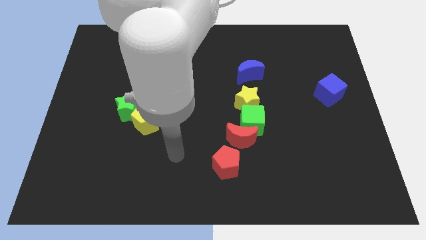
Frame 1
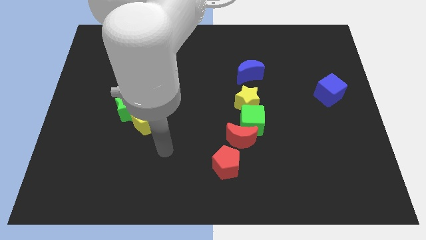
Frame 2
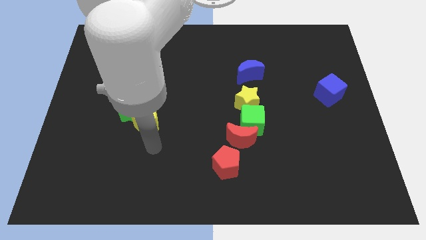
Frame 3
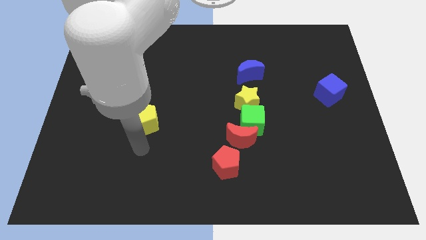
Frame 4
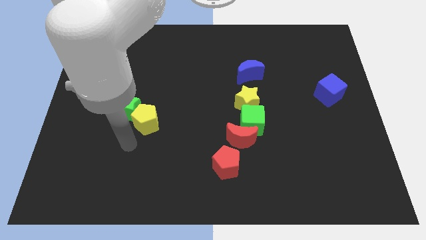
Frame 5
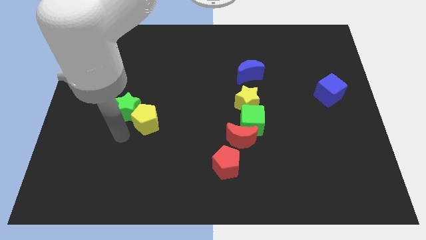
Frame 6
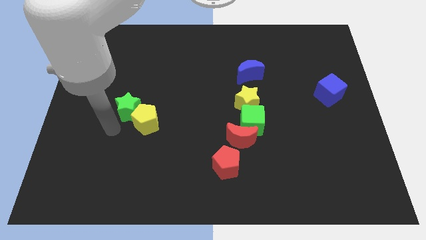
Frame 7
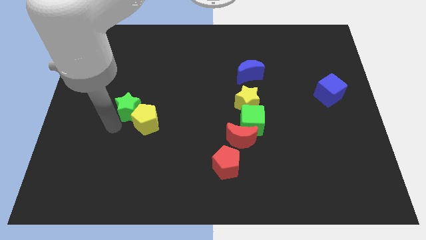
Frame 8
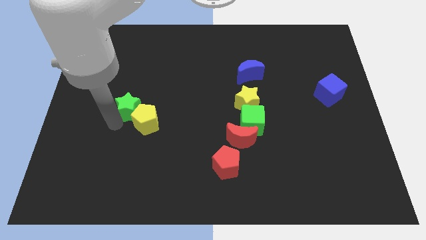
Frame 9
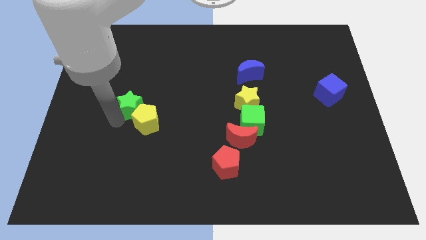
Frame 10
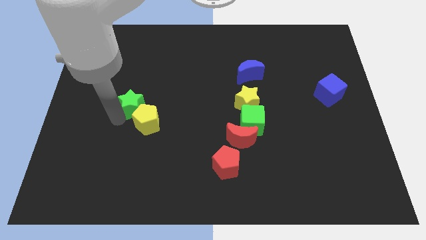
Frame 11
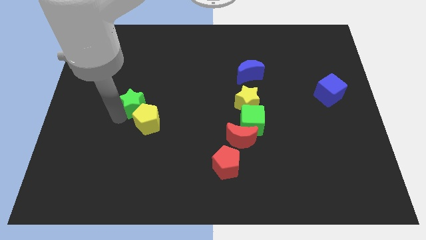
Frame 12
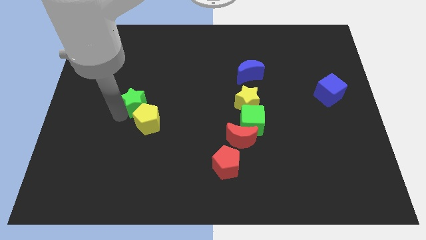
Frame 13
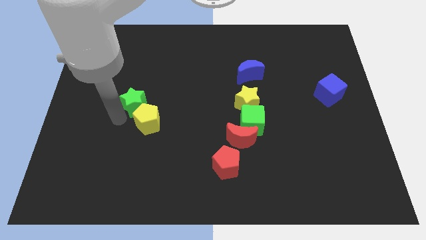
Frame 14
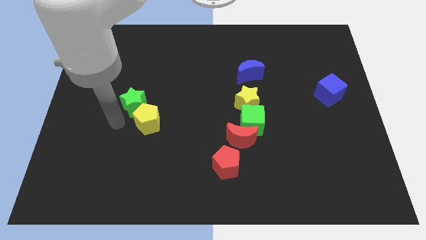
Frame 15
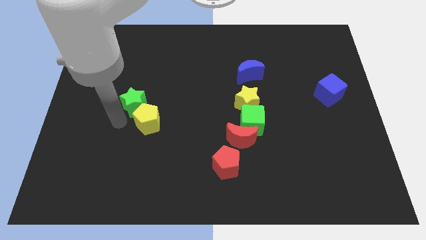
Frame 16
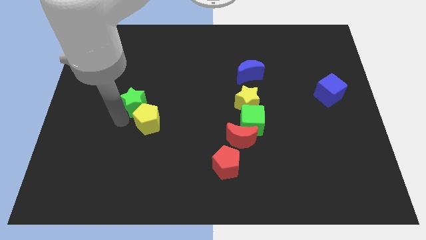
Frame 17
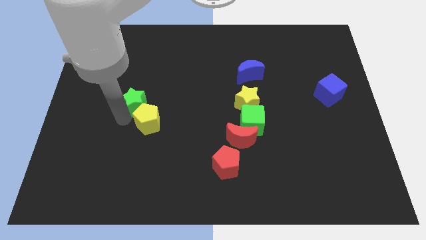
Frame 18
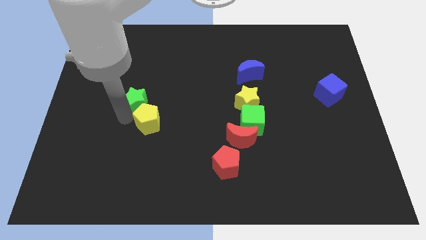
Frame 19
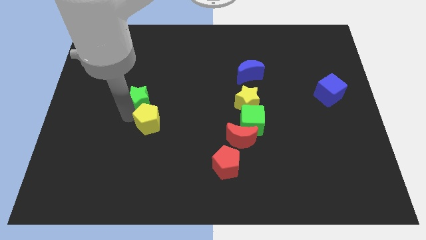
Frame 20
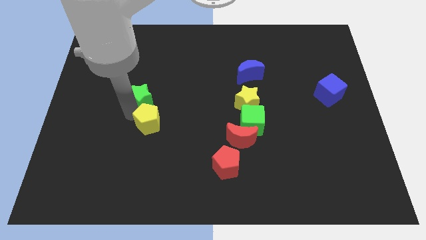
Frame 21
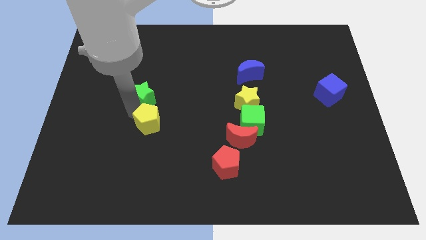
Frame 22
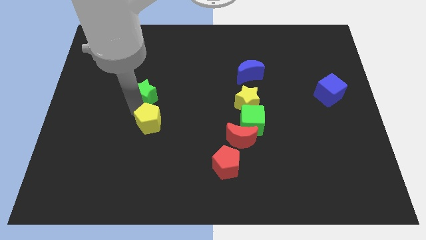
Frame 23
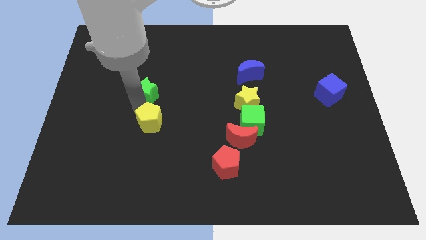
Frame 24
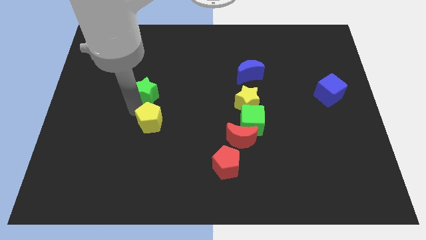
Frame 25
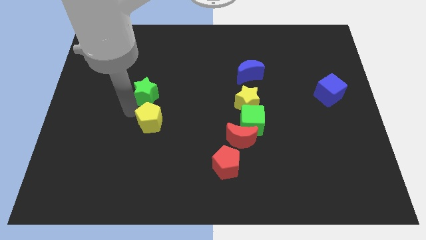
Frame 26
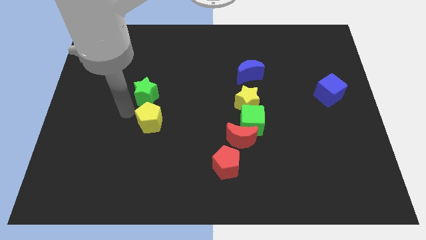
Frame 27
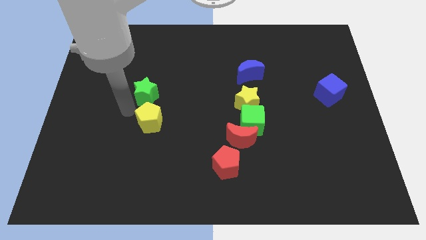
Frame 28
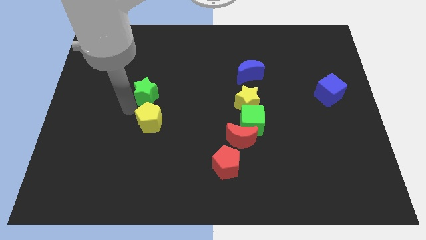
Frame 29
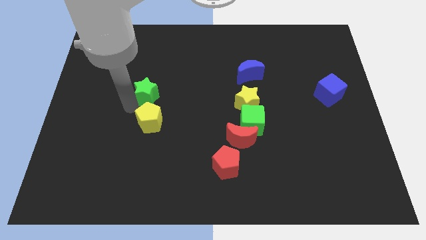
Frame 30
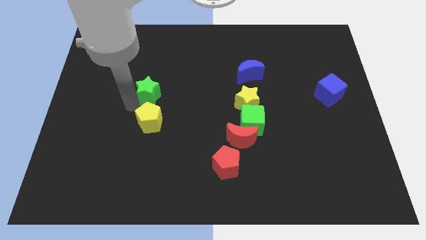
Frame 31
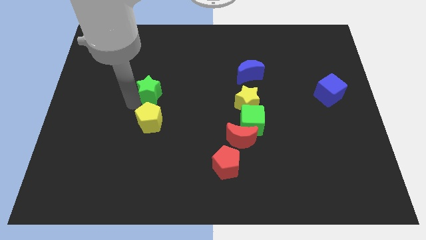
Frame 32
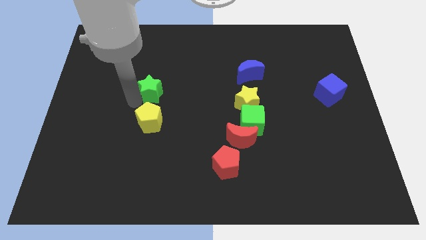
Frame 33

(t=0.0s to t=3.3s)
move the green star a little upwards and right diagonally

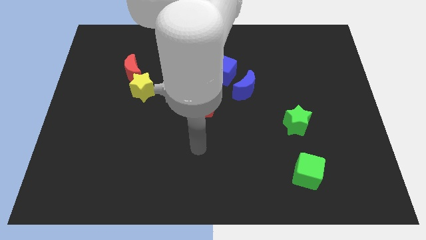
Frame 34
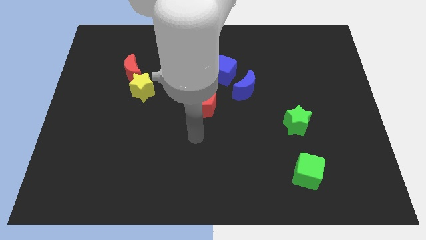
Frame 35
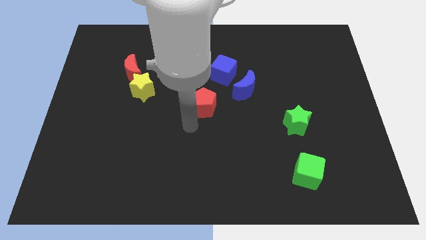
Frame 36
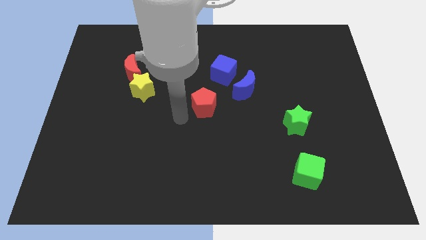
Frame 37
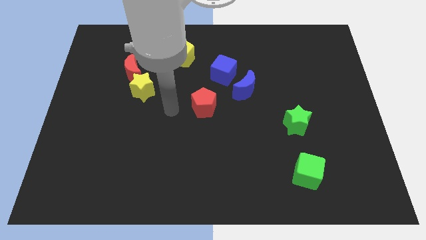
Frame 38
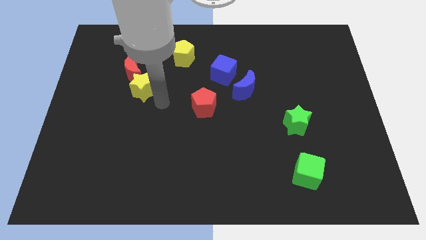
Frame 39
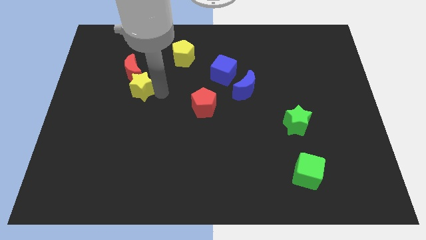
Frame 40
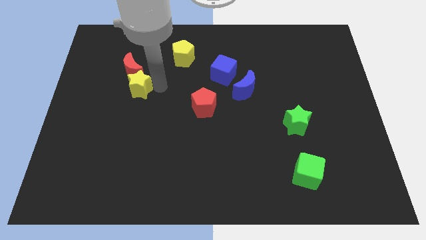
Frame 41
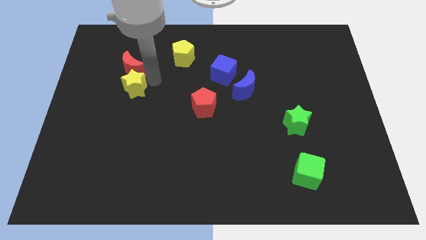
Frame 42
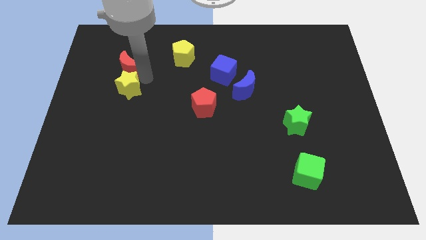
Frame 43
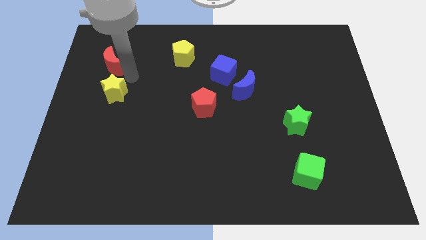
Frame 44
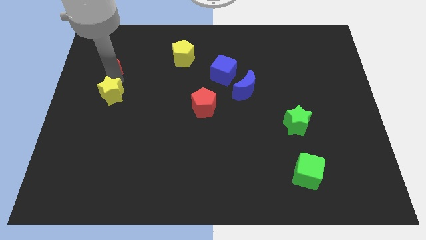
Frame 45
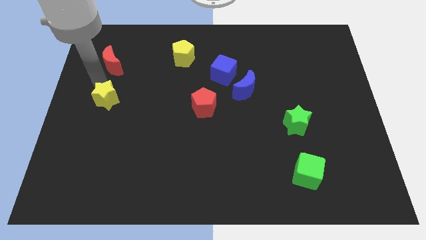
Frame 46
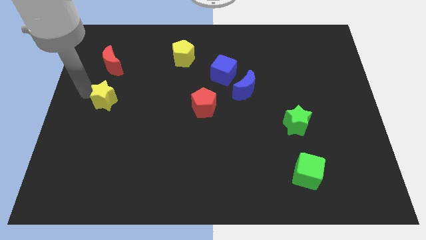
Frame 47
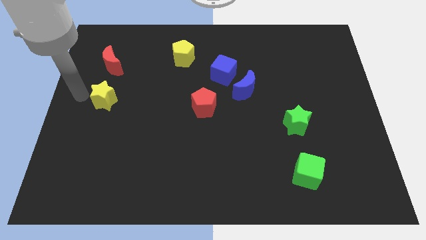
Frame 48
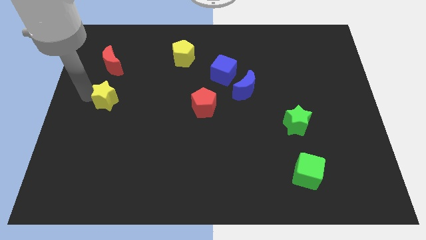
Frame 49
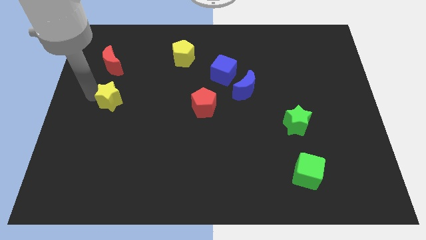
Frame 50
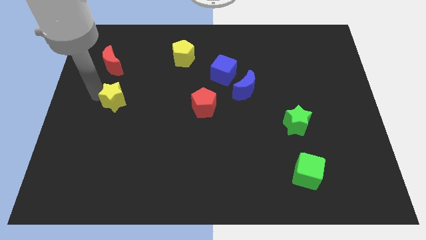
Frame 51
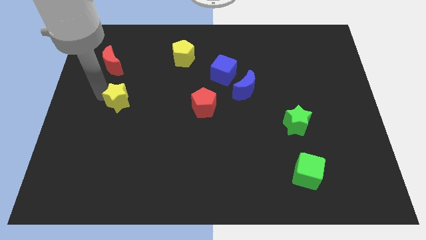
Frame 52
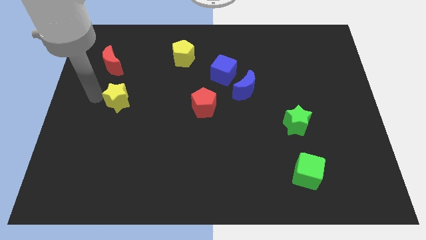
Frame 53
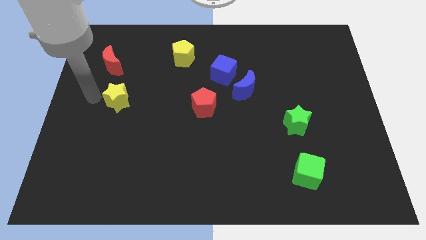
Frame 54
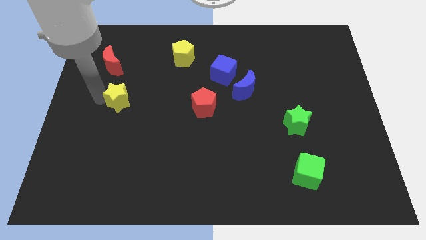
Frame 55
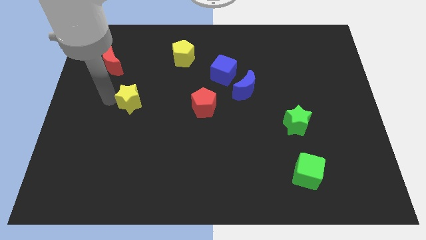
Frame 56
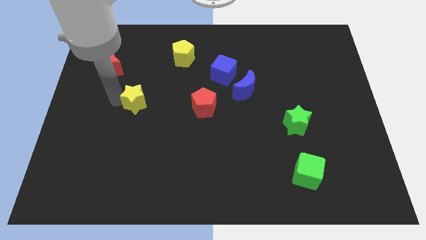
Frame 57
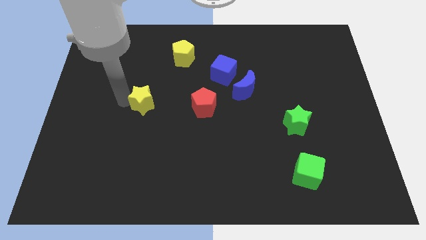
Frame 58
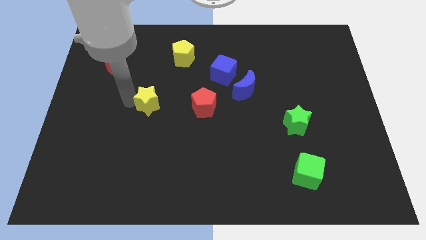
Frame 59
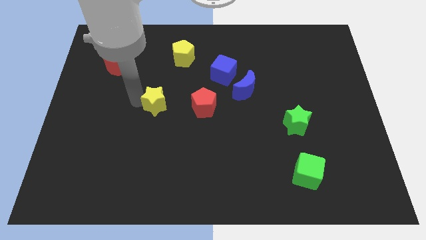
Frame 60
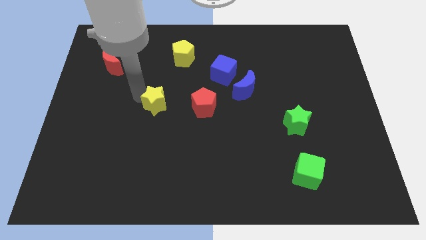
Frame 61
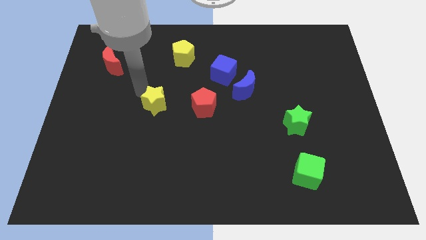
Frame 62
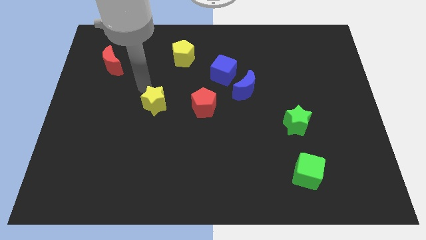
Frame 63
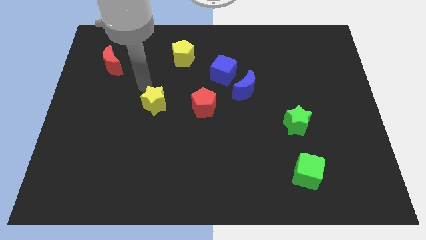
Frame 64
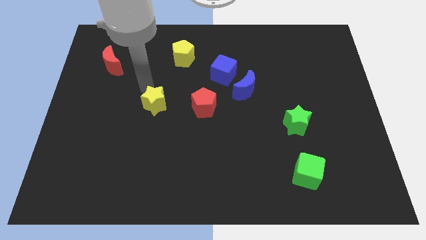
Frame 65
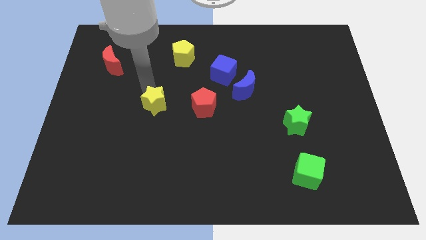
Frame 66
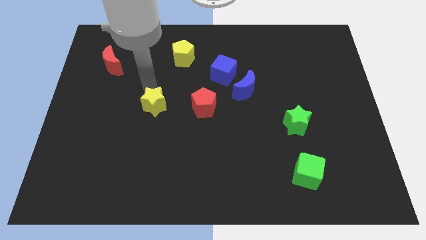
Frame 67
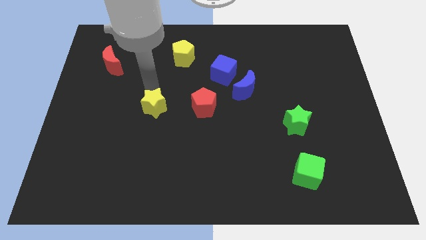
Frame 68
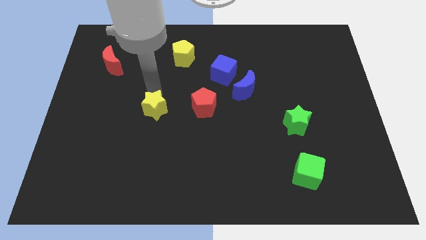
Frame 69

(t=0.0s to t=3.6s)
slightly move the yellow star diagonally down and to the right

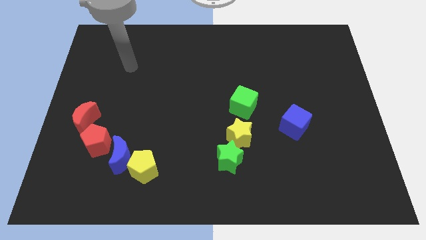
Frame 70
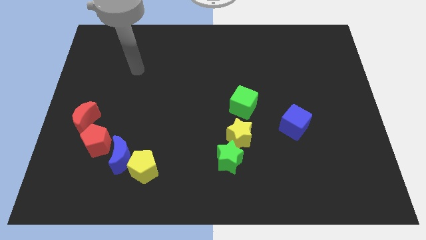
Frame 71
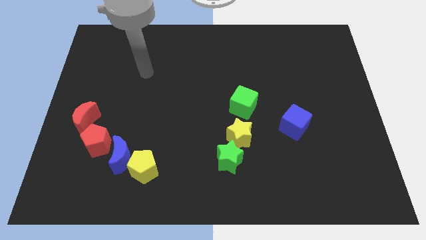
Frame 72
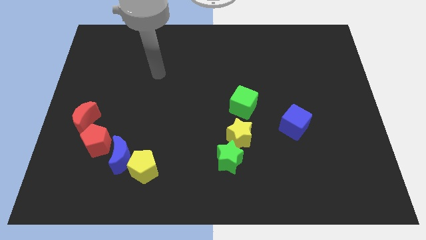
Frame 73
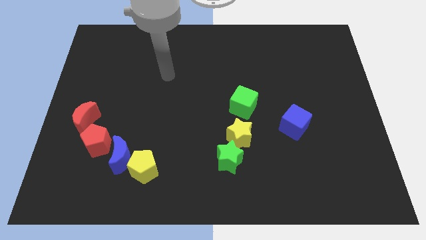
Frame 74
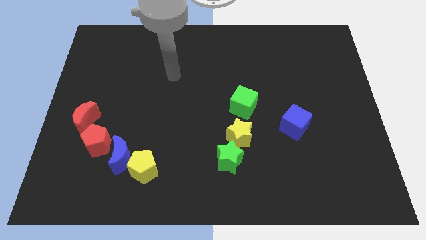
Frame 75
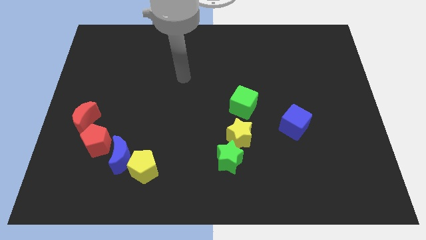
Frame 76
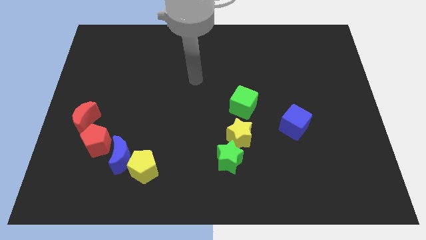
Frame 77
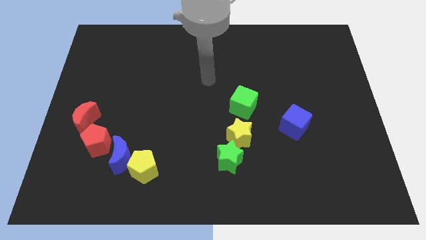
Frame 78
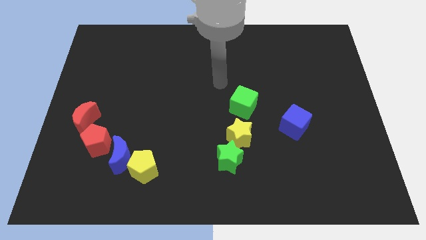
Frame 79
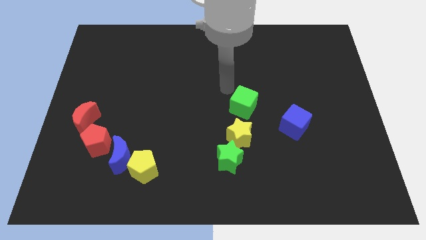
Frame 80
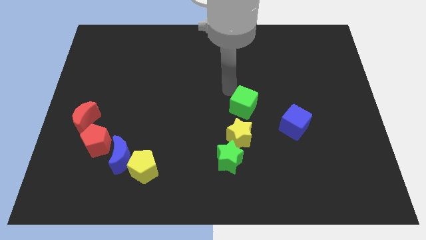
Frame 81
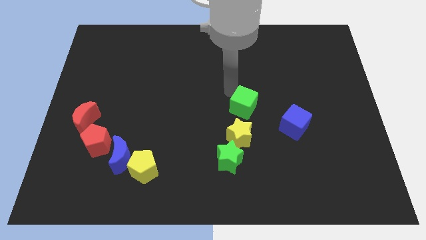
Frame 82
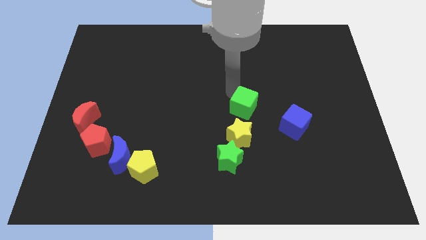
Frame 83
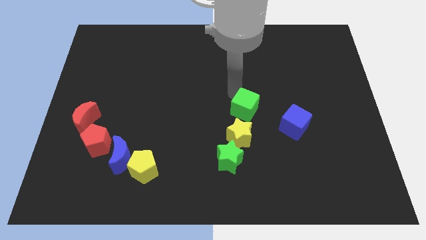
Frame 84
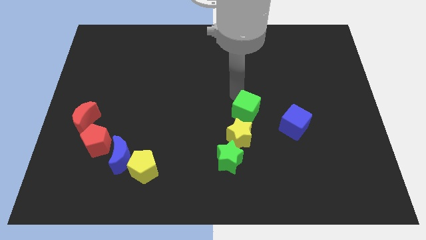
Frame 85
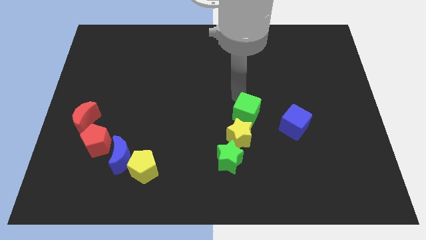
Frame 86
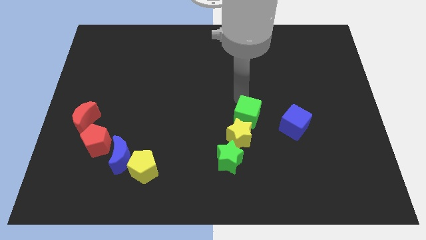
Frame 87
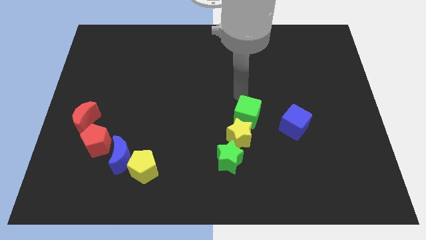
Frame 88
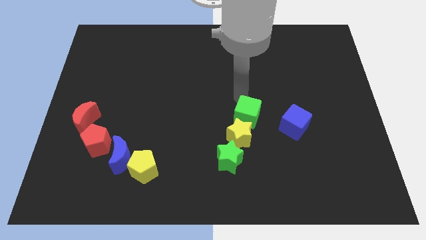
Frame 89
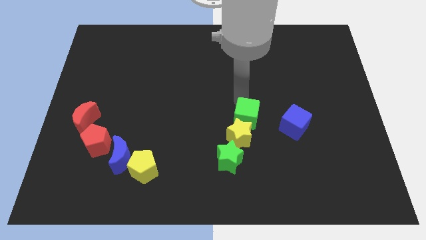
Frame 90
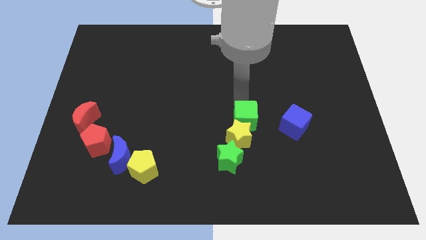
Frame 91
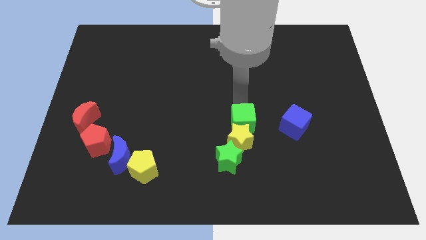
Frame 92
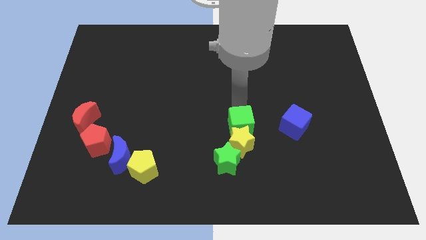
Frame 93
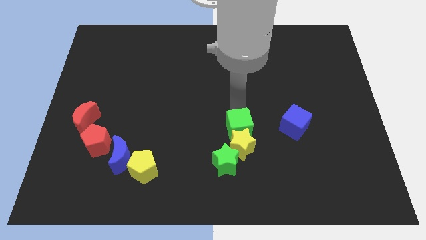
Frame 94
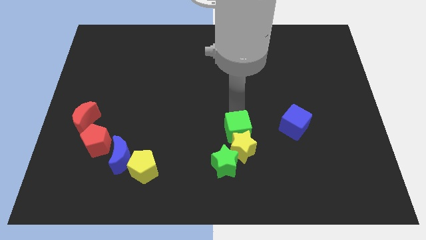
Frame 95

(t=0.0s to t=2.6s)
slightly push the green cube down
